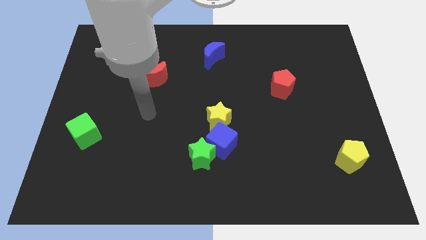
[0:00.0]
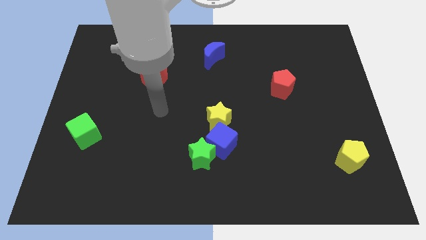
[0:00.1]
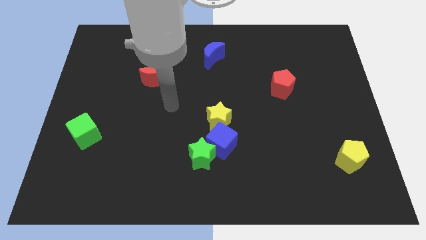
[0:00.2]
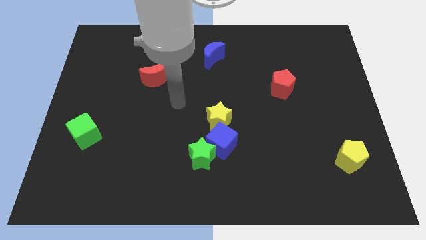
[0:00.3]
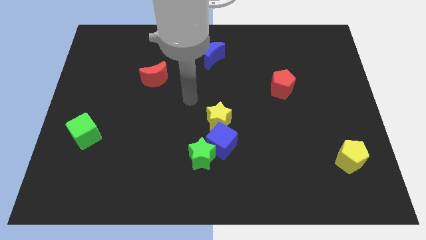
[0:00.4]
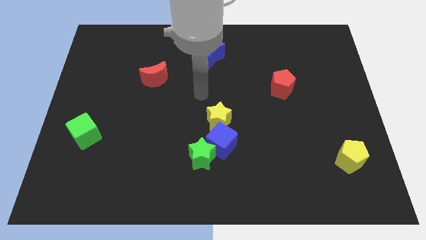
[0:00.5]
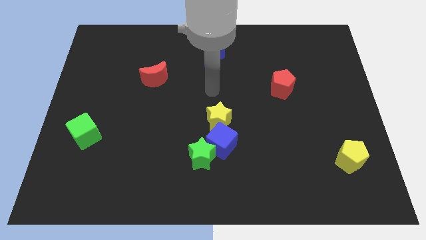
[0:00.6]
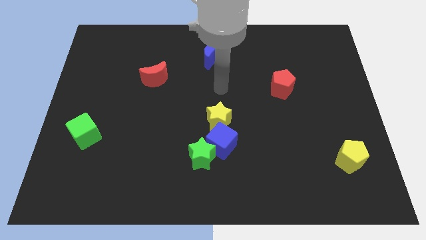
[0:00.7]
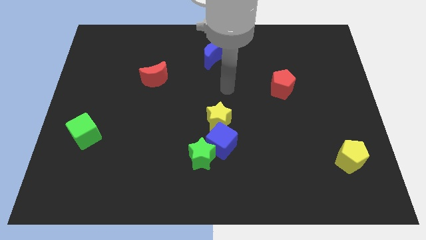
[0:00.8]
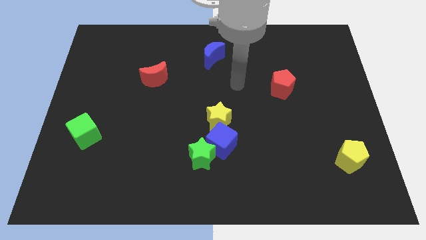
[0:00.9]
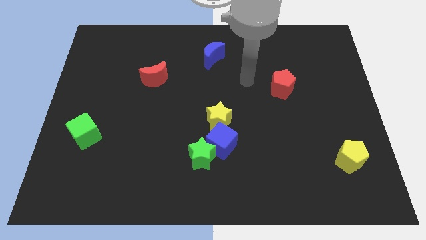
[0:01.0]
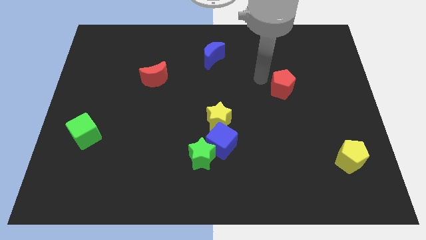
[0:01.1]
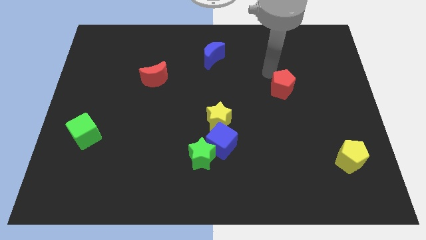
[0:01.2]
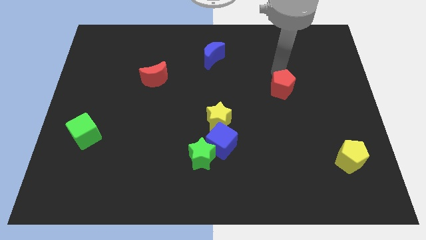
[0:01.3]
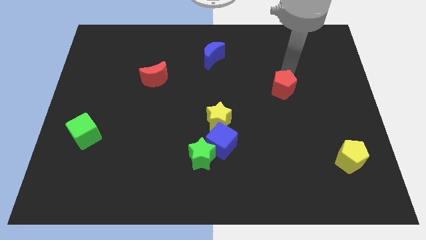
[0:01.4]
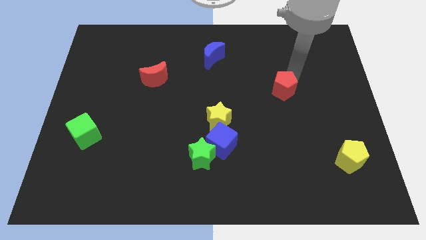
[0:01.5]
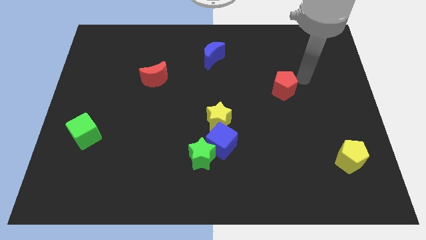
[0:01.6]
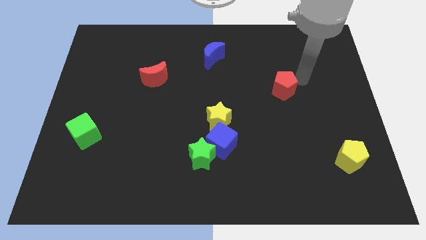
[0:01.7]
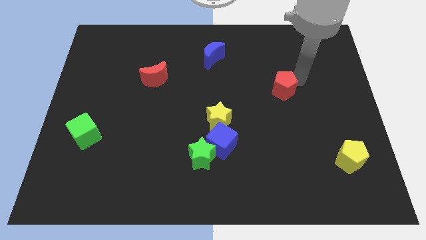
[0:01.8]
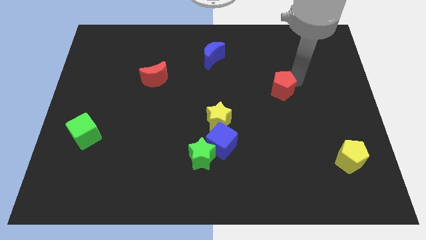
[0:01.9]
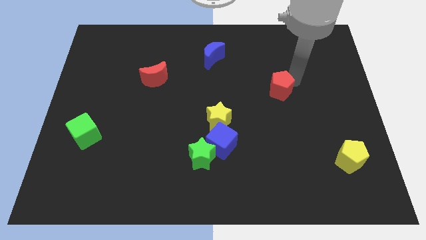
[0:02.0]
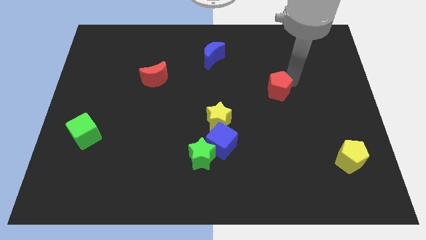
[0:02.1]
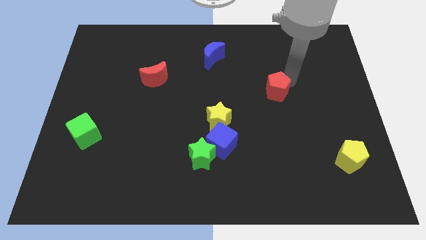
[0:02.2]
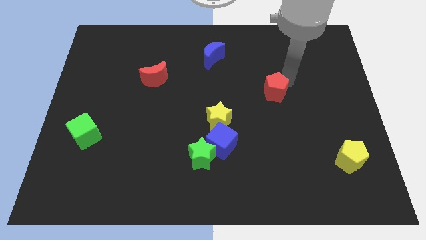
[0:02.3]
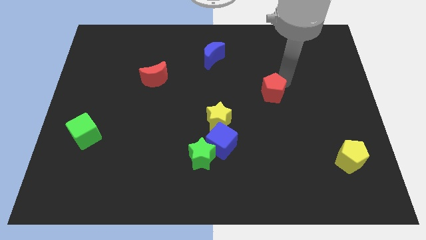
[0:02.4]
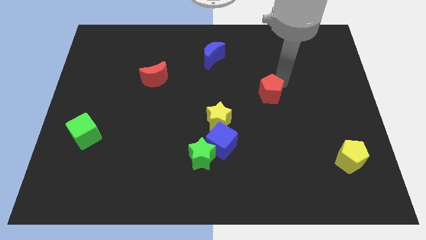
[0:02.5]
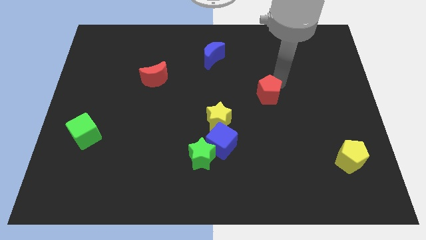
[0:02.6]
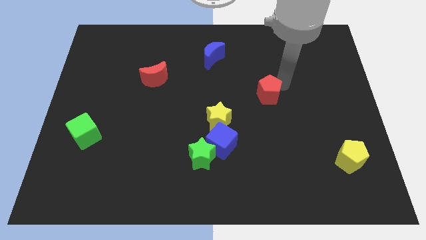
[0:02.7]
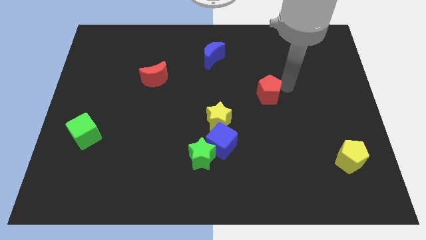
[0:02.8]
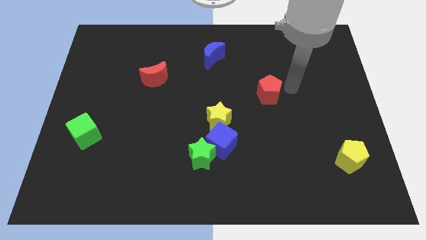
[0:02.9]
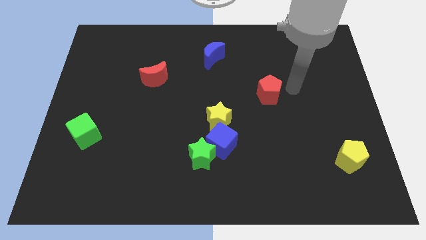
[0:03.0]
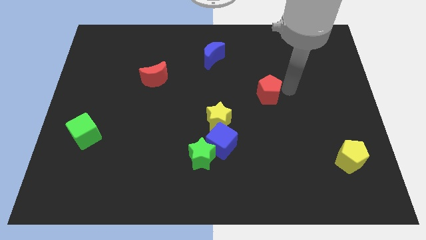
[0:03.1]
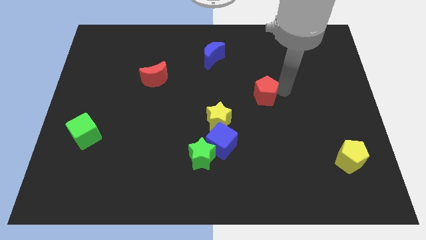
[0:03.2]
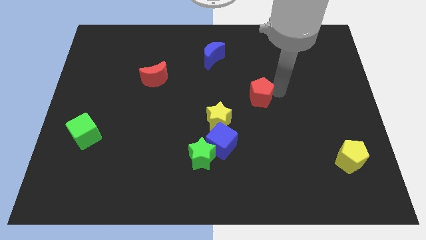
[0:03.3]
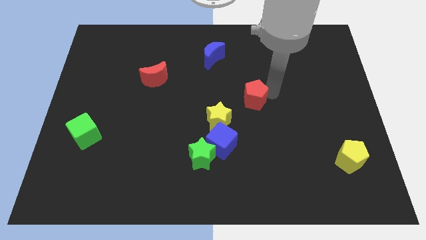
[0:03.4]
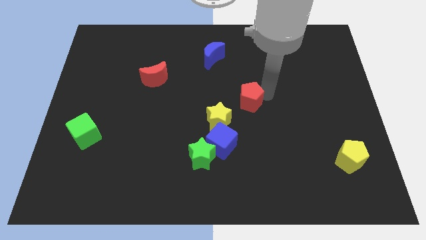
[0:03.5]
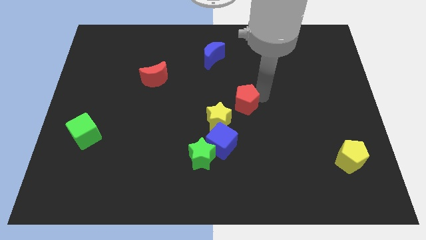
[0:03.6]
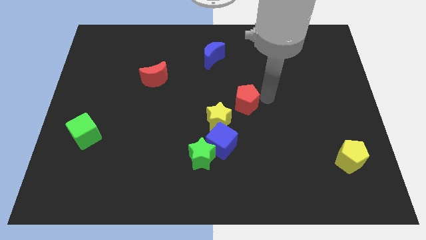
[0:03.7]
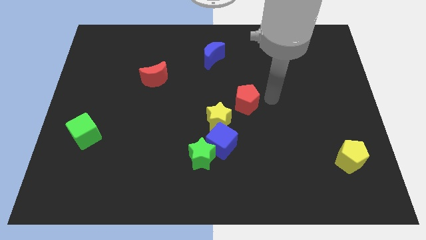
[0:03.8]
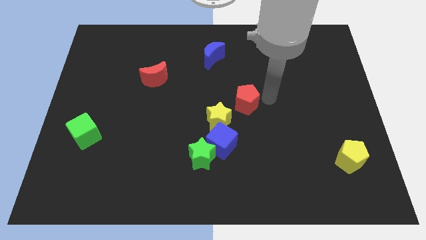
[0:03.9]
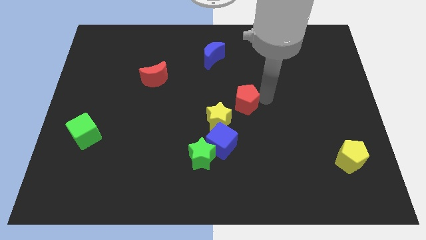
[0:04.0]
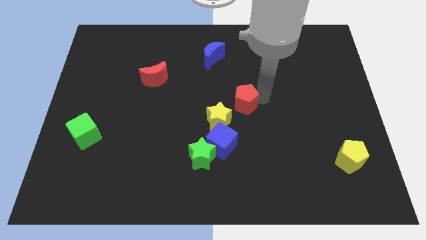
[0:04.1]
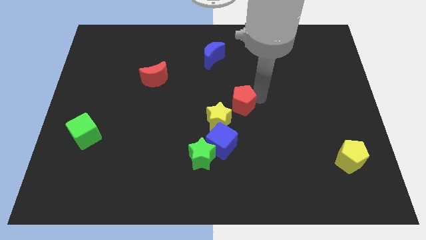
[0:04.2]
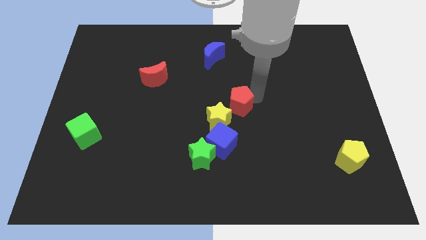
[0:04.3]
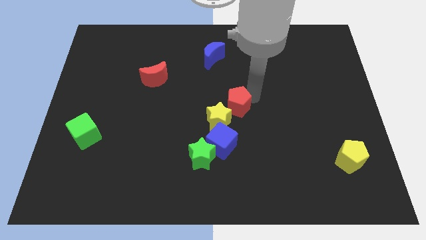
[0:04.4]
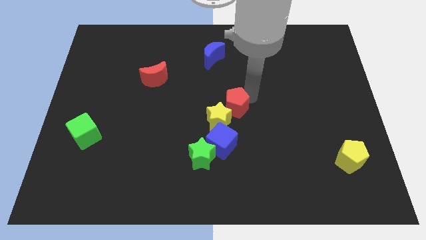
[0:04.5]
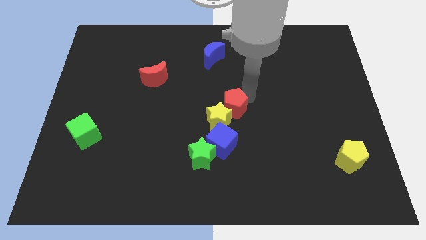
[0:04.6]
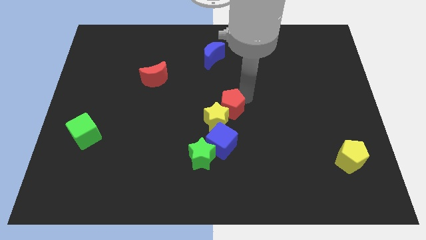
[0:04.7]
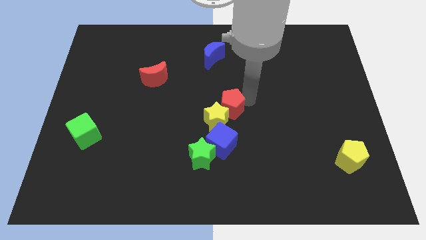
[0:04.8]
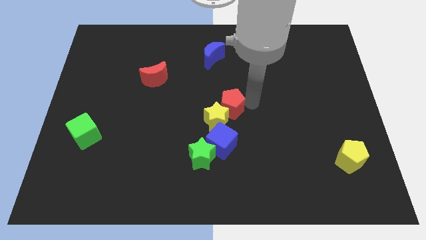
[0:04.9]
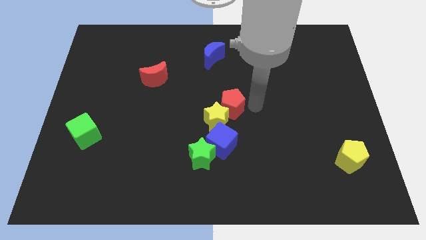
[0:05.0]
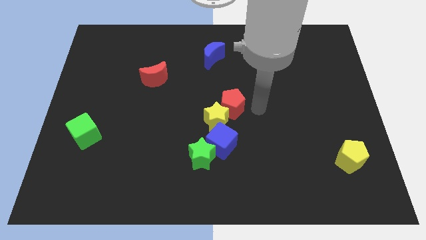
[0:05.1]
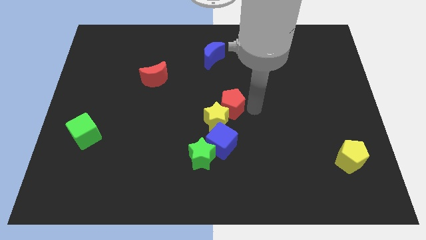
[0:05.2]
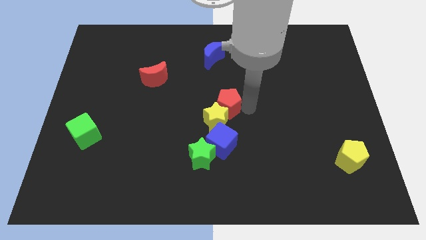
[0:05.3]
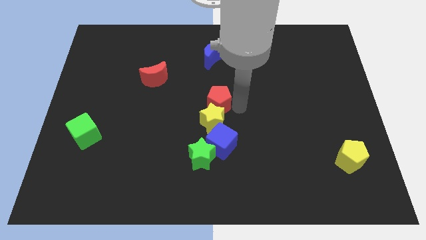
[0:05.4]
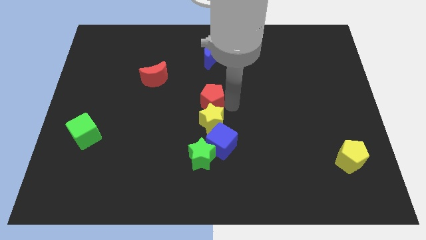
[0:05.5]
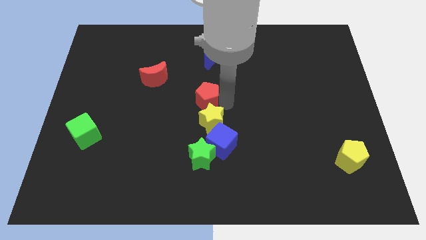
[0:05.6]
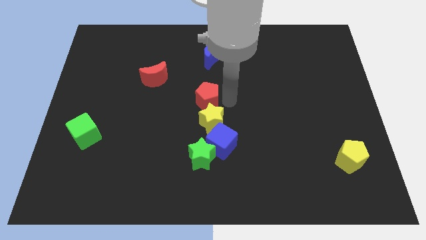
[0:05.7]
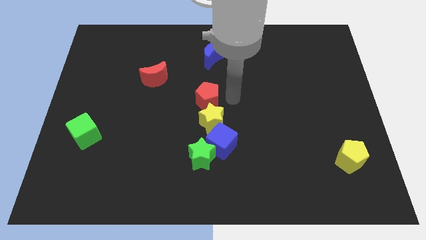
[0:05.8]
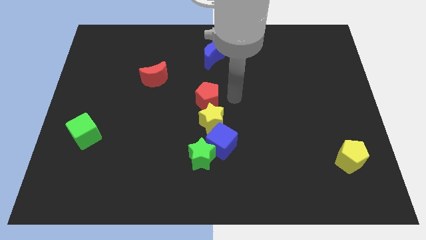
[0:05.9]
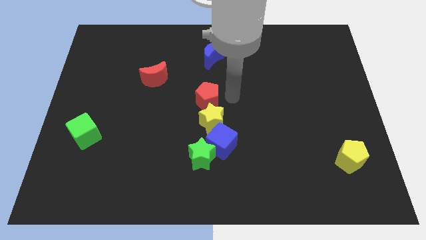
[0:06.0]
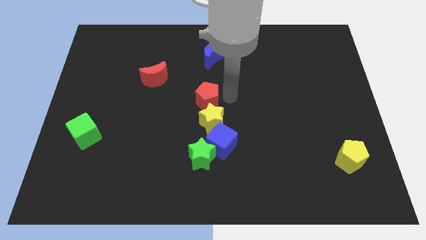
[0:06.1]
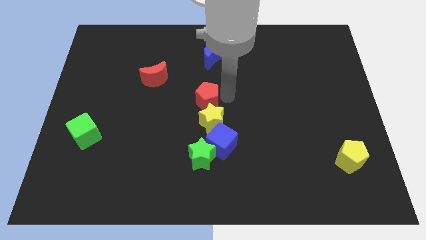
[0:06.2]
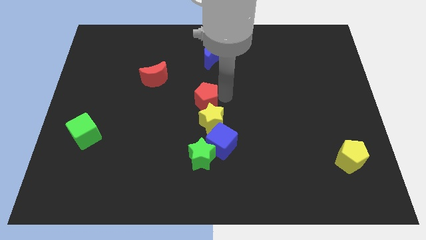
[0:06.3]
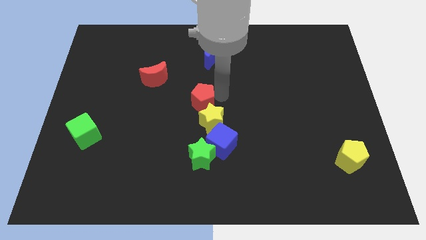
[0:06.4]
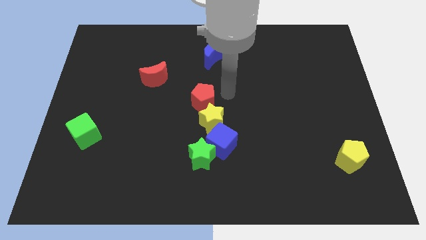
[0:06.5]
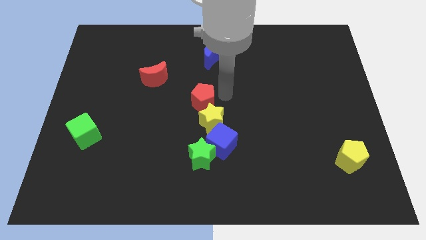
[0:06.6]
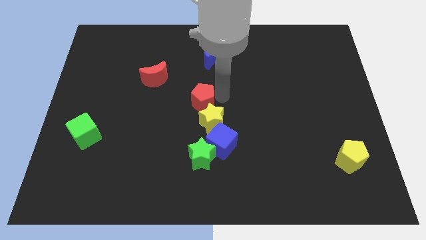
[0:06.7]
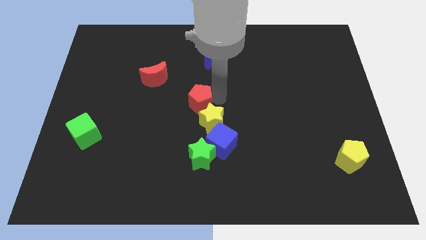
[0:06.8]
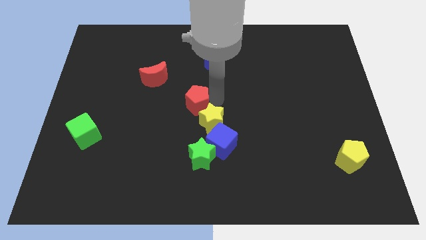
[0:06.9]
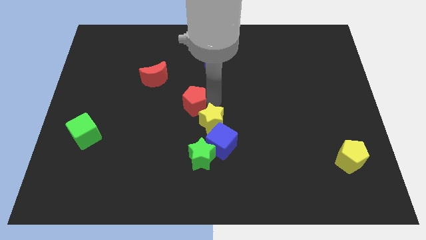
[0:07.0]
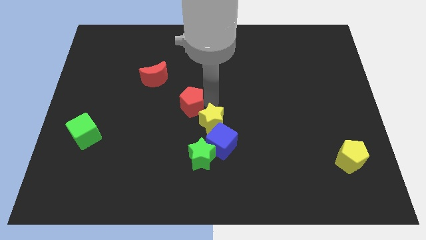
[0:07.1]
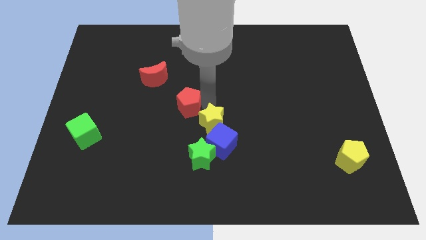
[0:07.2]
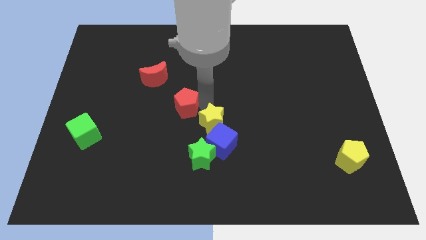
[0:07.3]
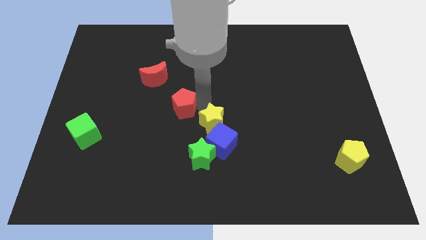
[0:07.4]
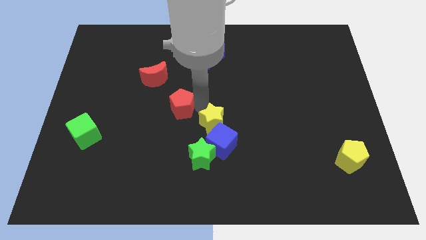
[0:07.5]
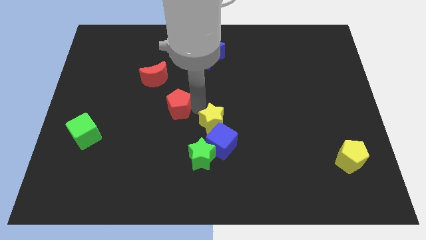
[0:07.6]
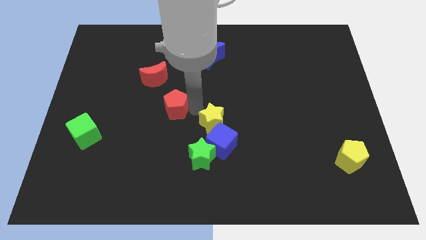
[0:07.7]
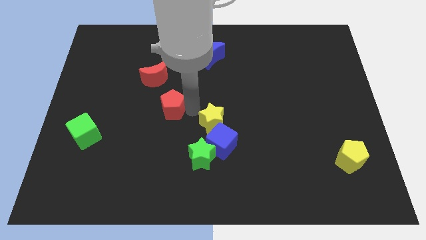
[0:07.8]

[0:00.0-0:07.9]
slide the red pentagon to the bottom side of the red moon
